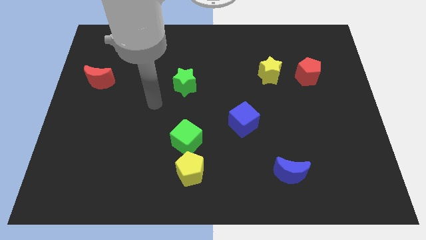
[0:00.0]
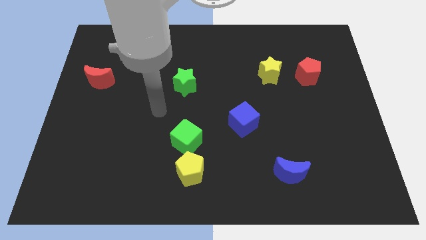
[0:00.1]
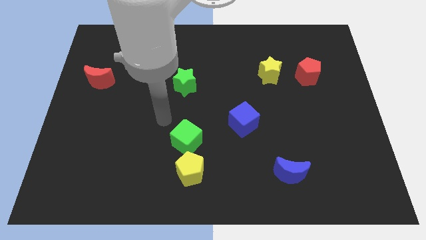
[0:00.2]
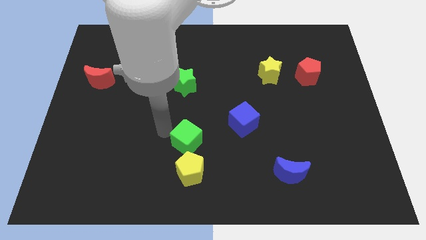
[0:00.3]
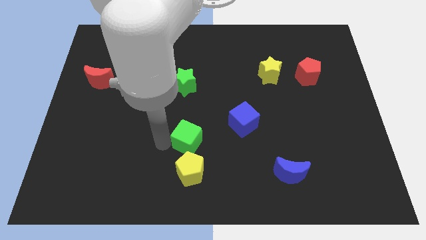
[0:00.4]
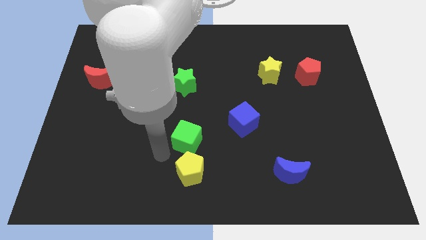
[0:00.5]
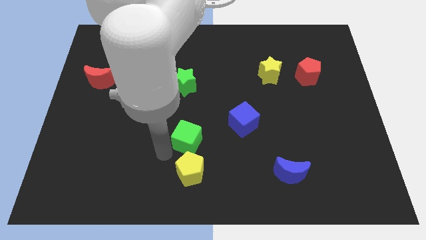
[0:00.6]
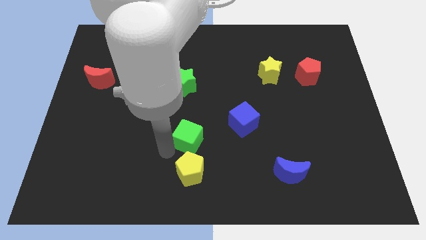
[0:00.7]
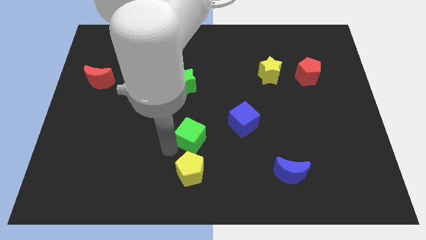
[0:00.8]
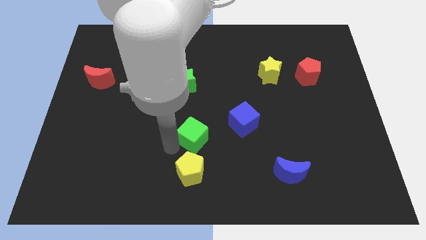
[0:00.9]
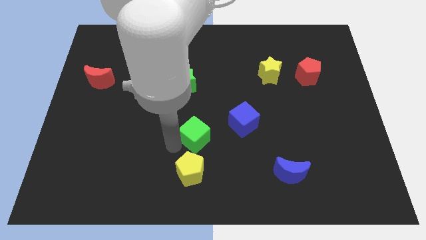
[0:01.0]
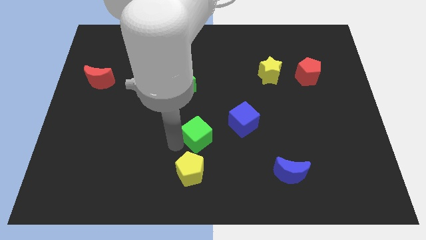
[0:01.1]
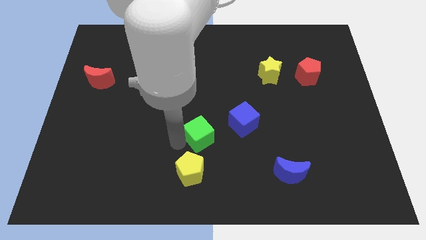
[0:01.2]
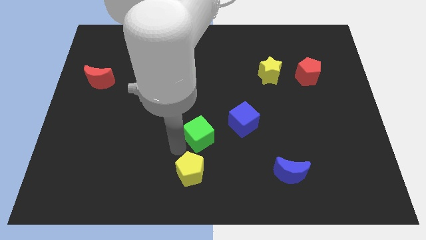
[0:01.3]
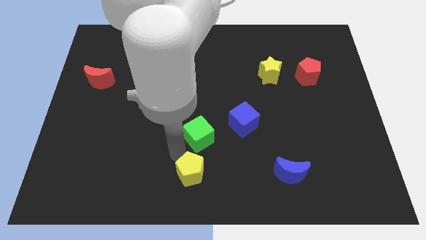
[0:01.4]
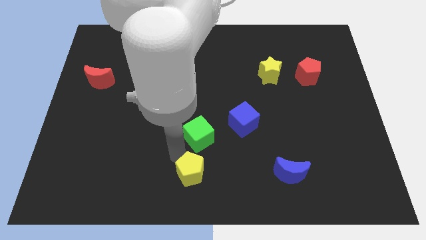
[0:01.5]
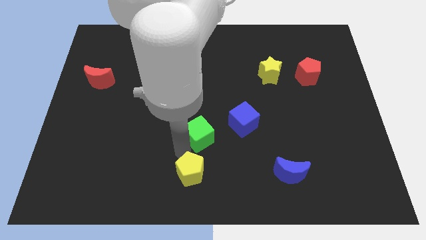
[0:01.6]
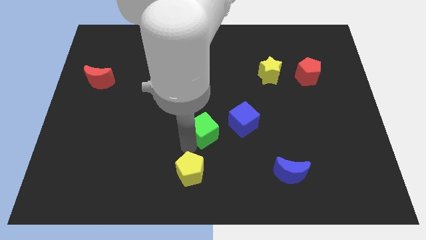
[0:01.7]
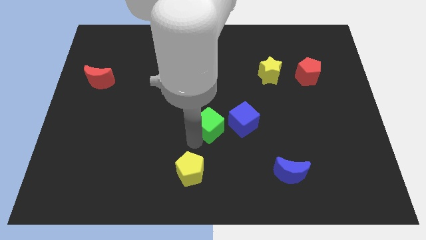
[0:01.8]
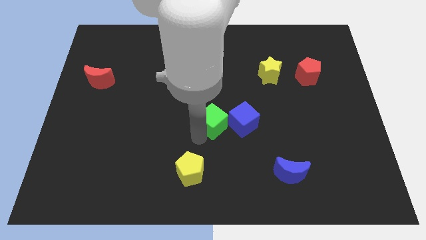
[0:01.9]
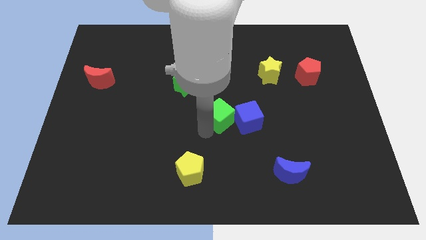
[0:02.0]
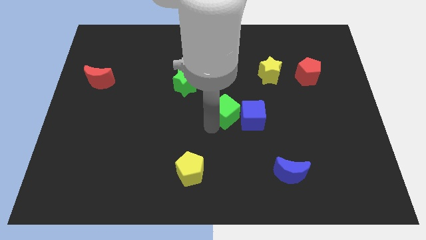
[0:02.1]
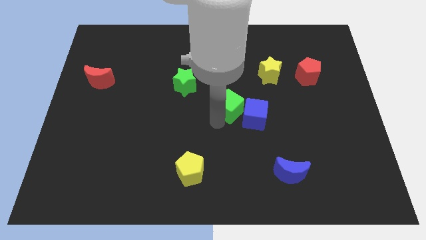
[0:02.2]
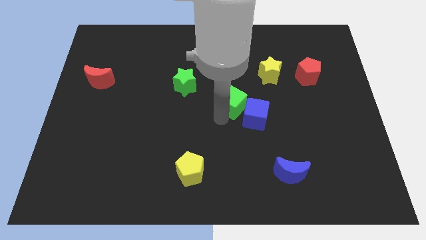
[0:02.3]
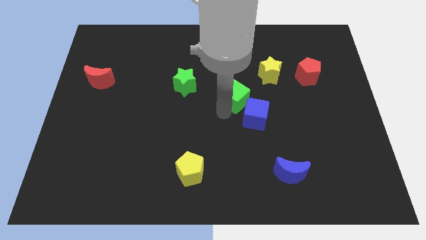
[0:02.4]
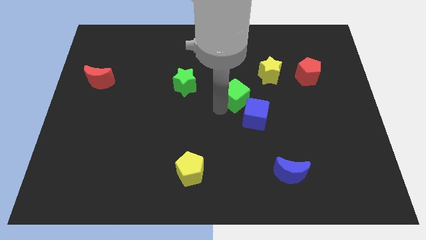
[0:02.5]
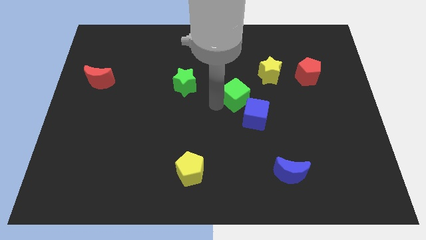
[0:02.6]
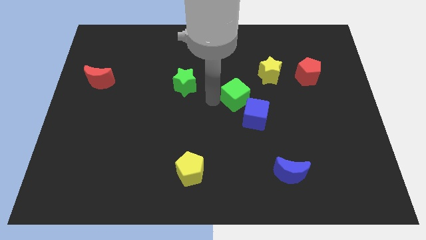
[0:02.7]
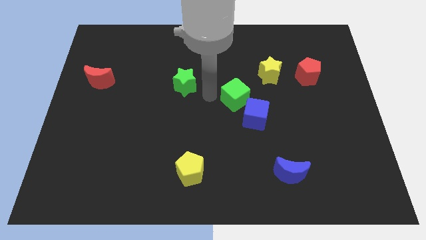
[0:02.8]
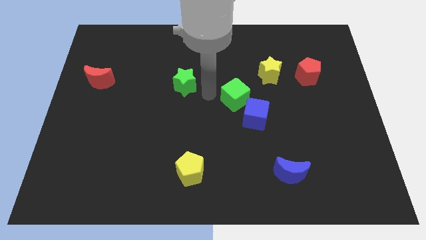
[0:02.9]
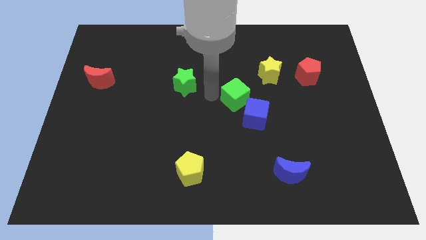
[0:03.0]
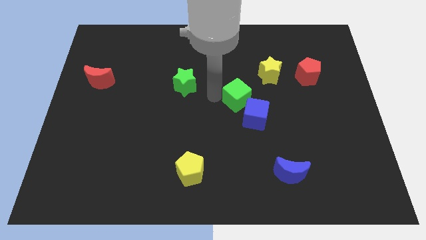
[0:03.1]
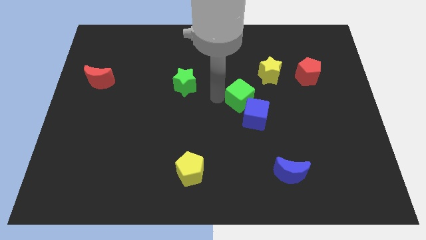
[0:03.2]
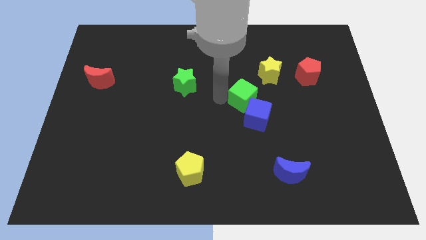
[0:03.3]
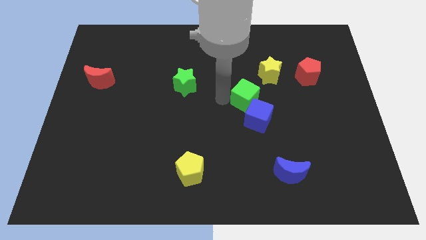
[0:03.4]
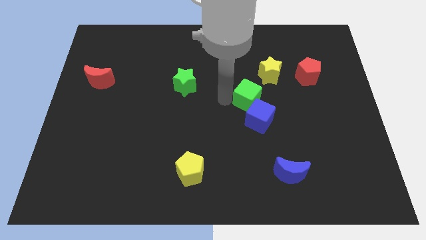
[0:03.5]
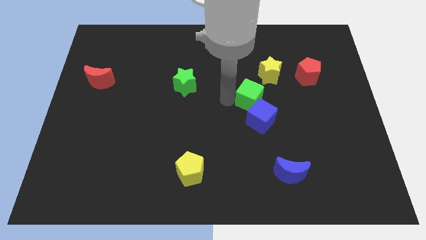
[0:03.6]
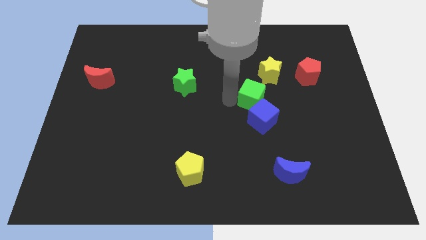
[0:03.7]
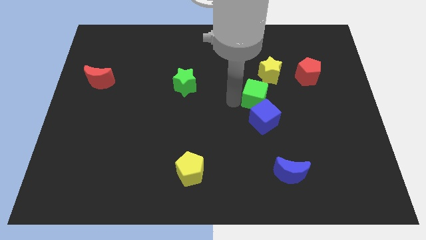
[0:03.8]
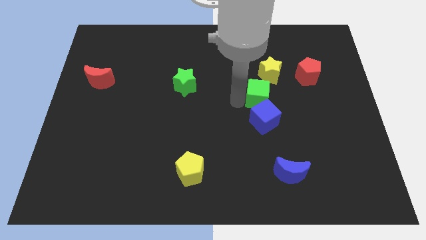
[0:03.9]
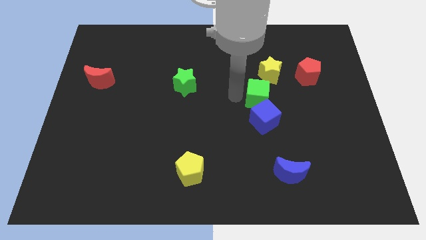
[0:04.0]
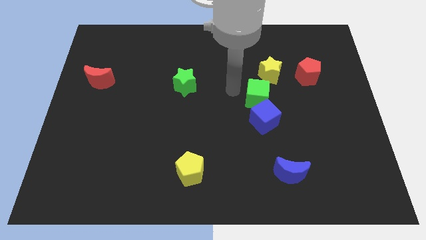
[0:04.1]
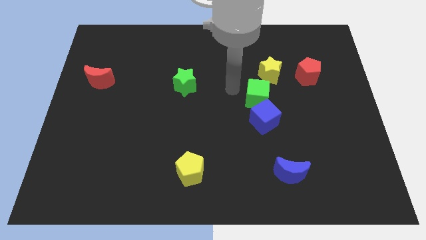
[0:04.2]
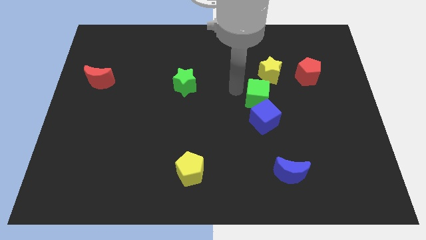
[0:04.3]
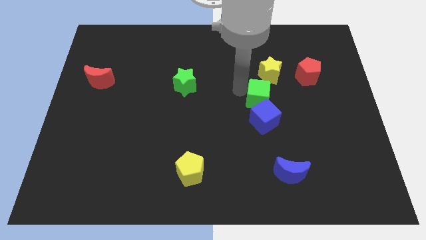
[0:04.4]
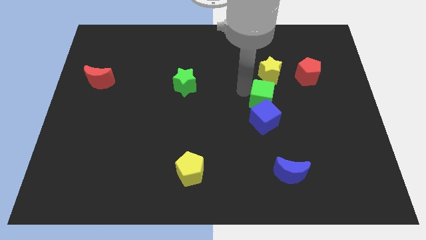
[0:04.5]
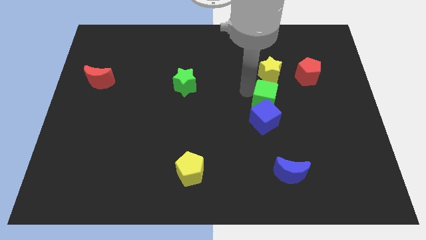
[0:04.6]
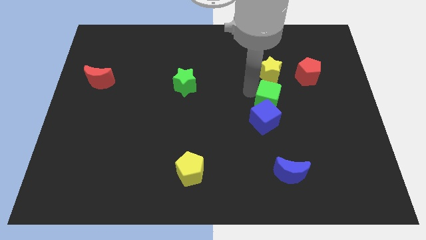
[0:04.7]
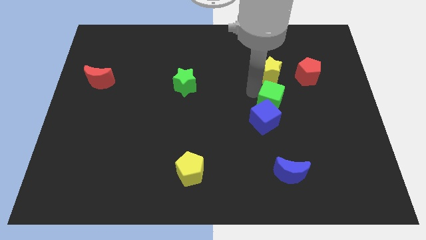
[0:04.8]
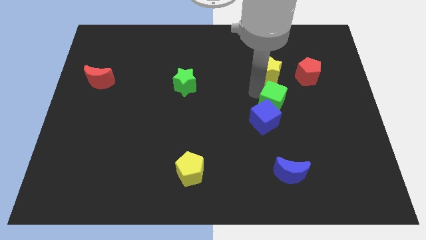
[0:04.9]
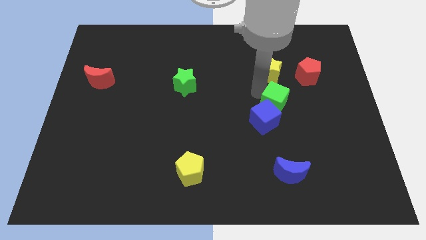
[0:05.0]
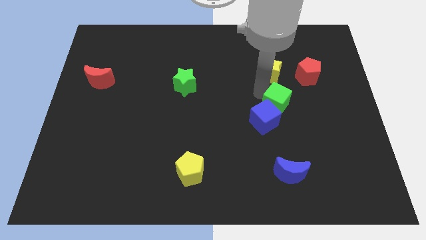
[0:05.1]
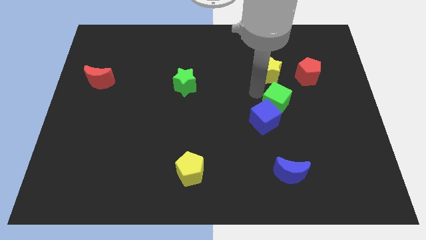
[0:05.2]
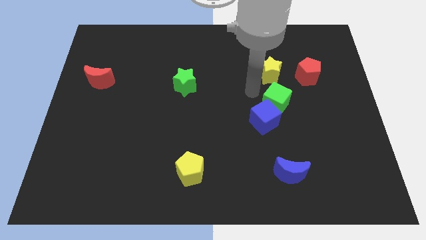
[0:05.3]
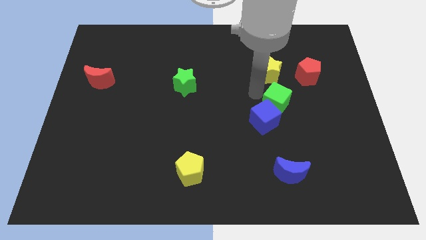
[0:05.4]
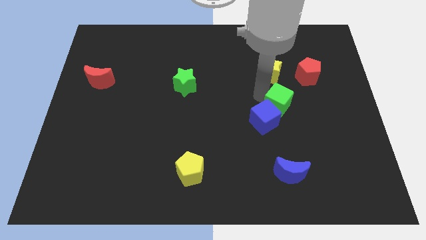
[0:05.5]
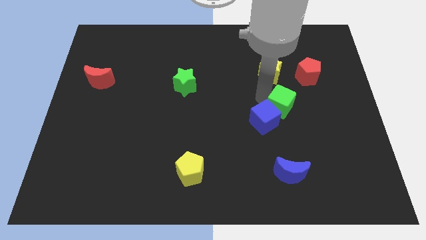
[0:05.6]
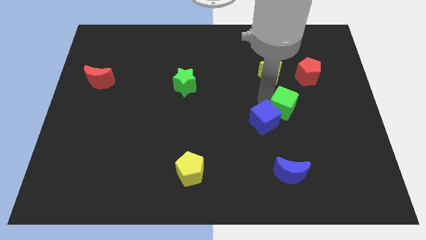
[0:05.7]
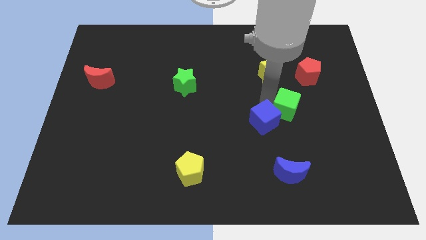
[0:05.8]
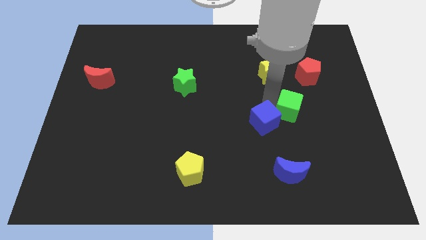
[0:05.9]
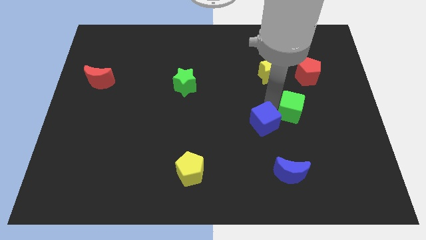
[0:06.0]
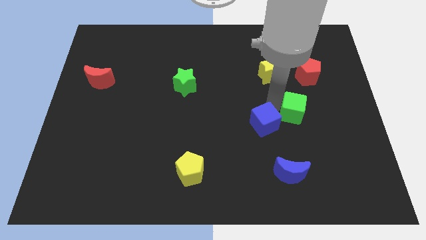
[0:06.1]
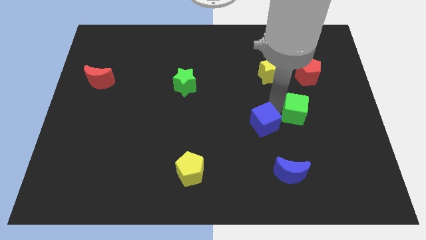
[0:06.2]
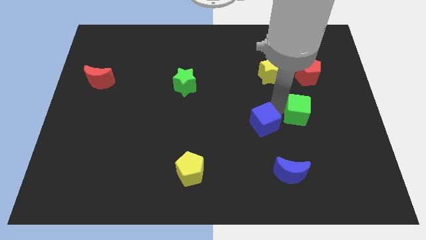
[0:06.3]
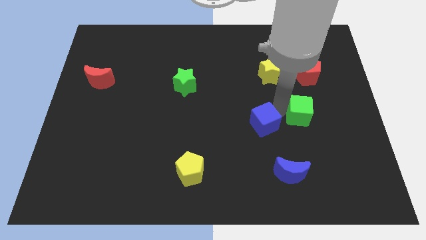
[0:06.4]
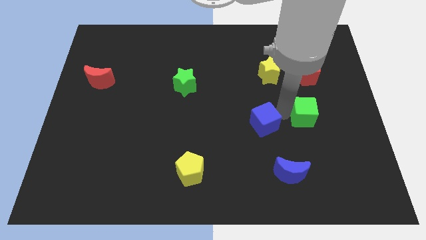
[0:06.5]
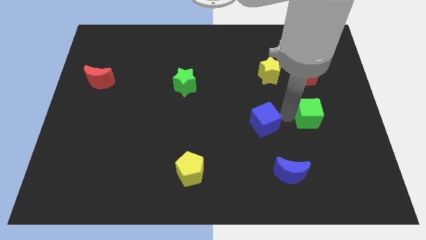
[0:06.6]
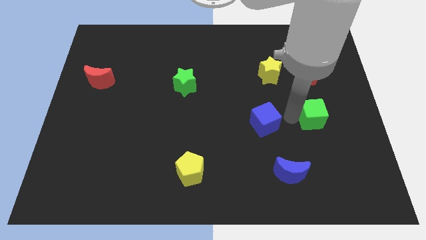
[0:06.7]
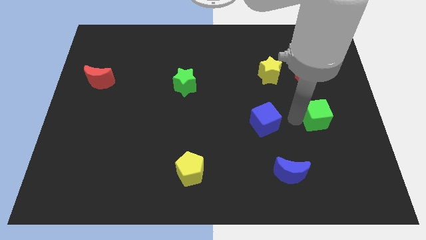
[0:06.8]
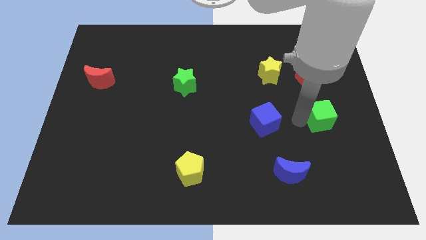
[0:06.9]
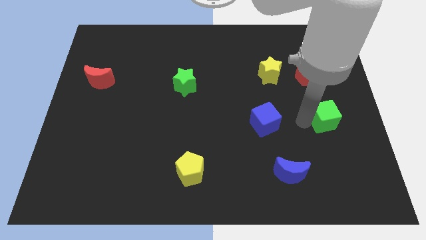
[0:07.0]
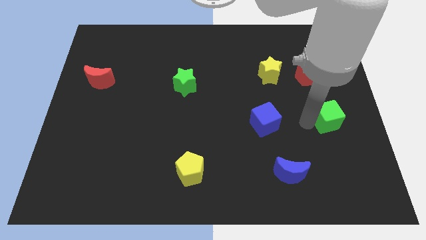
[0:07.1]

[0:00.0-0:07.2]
push the green cube to the center right
